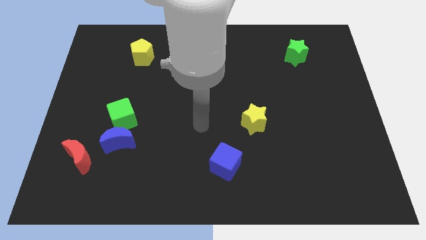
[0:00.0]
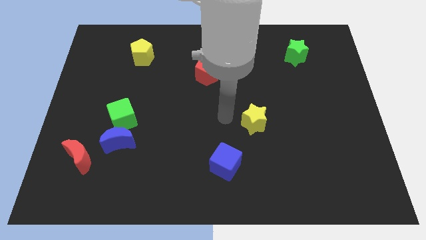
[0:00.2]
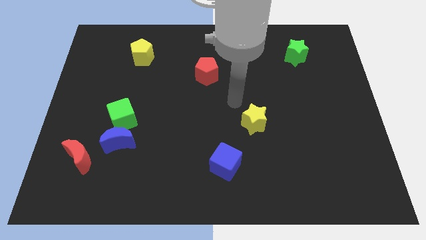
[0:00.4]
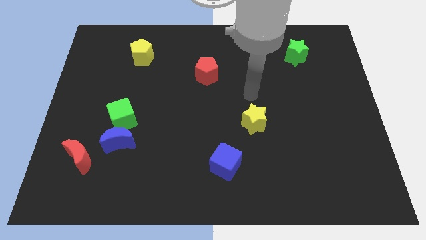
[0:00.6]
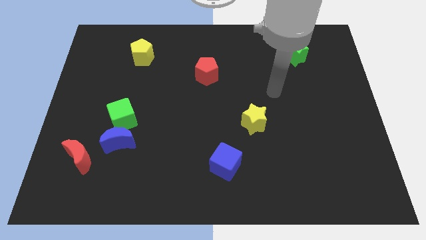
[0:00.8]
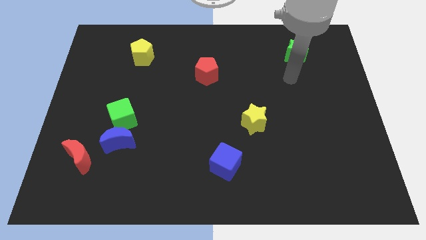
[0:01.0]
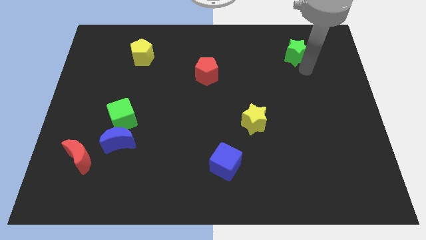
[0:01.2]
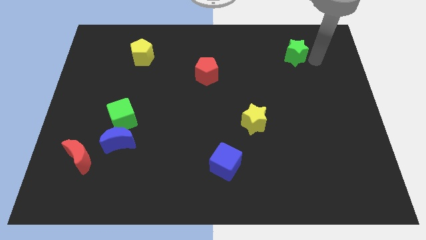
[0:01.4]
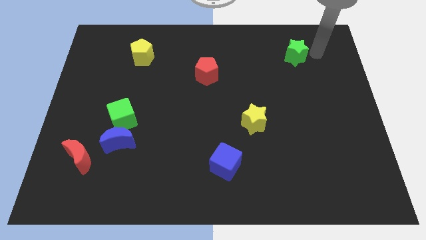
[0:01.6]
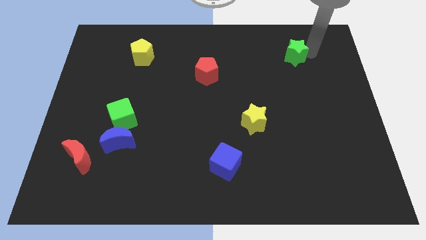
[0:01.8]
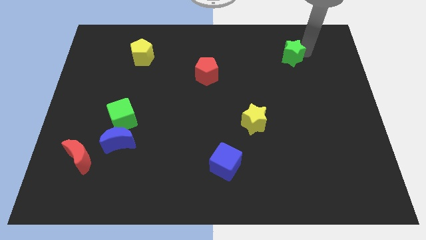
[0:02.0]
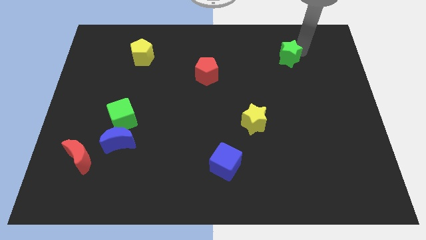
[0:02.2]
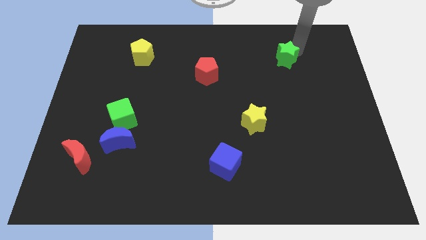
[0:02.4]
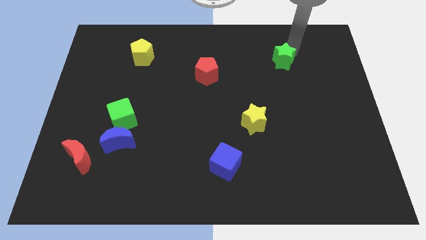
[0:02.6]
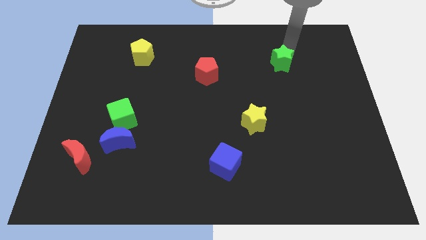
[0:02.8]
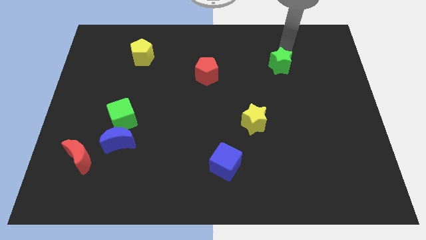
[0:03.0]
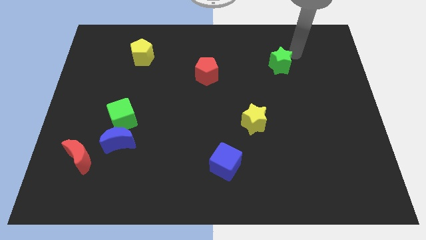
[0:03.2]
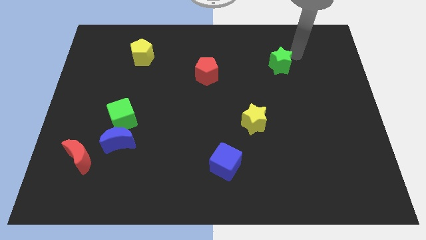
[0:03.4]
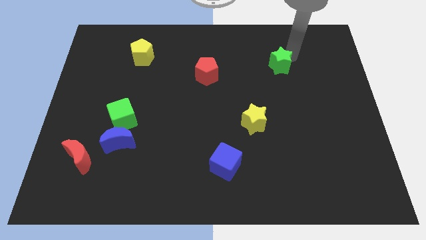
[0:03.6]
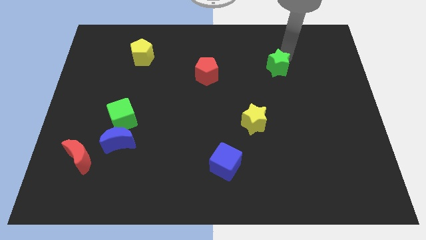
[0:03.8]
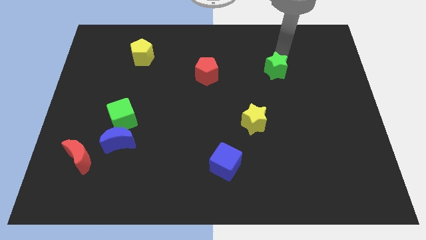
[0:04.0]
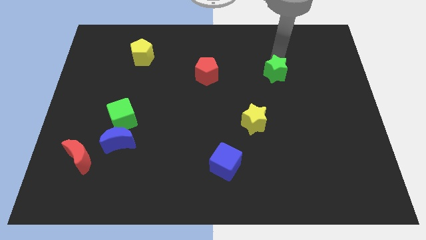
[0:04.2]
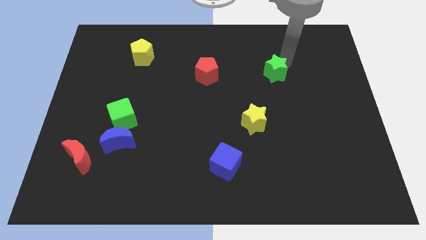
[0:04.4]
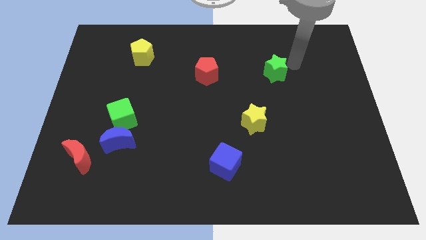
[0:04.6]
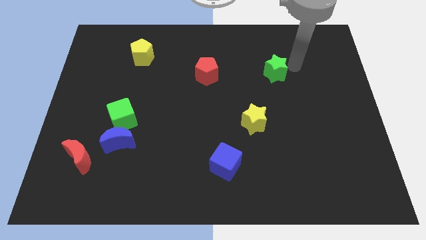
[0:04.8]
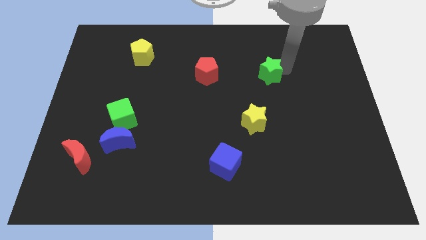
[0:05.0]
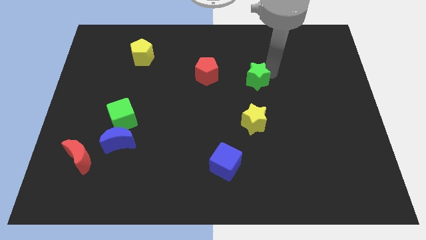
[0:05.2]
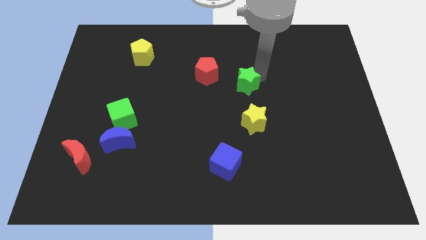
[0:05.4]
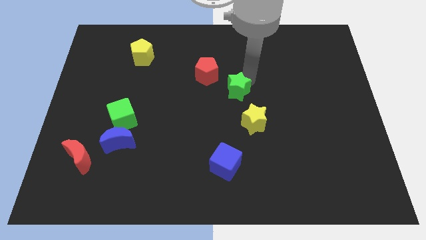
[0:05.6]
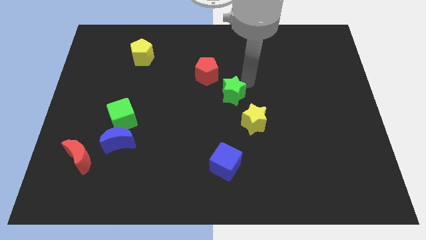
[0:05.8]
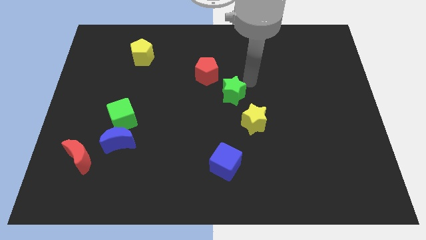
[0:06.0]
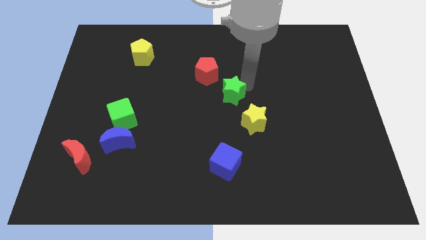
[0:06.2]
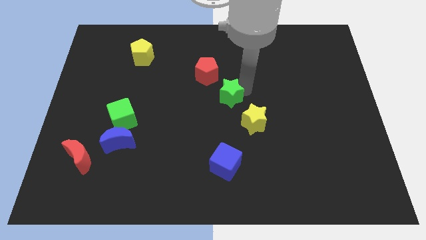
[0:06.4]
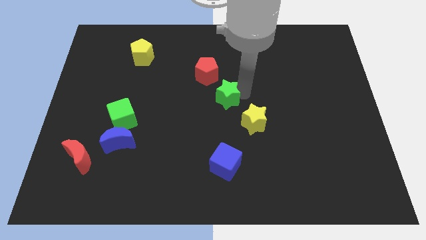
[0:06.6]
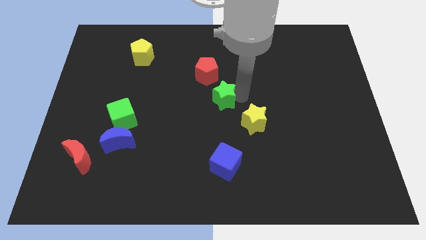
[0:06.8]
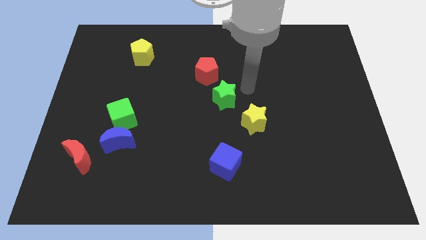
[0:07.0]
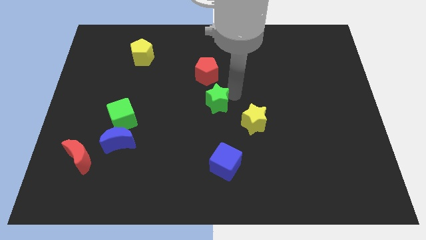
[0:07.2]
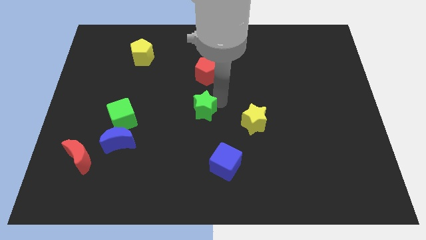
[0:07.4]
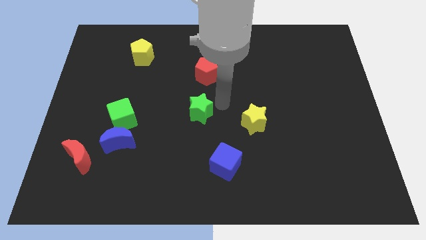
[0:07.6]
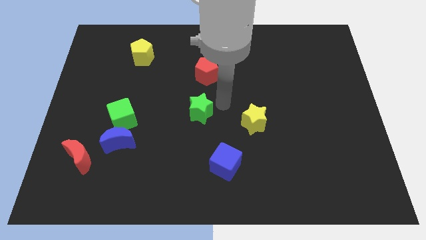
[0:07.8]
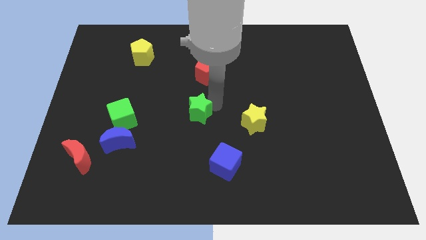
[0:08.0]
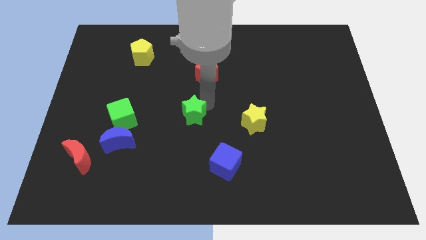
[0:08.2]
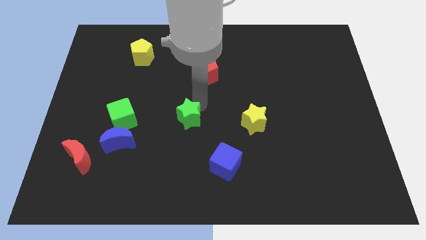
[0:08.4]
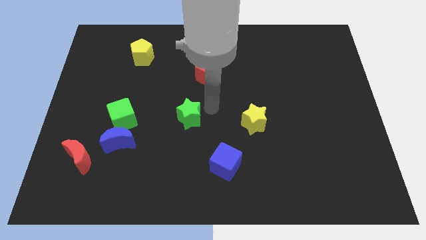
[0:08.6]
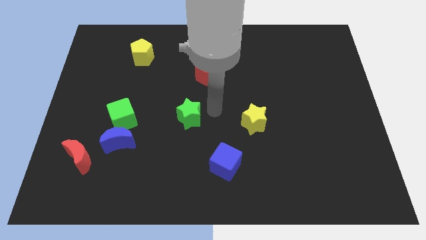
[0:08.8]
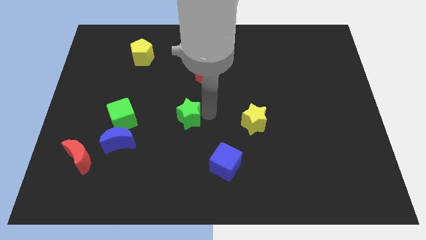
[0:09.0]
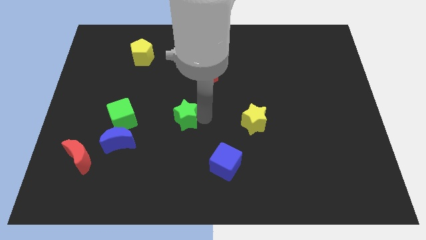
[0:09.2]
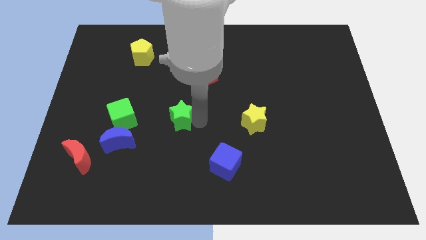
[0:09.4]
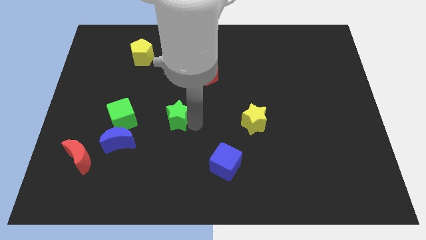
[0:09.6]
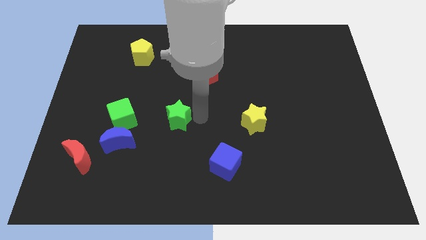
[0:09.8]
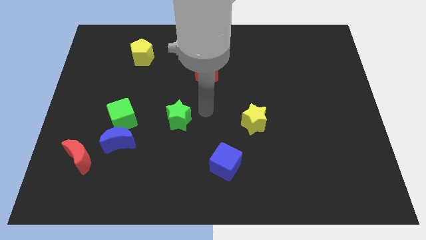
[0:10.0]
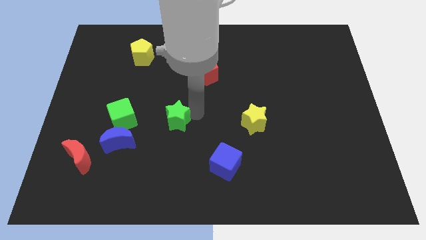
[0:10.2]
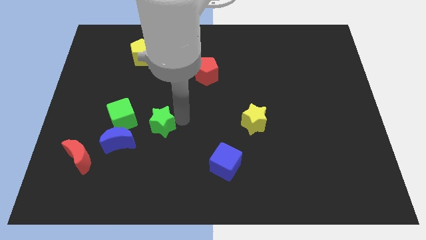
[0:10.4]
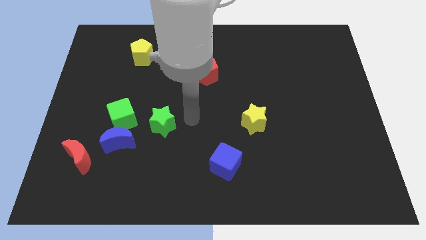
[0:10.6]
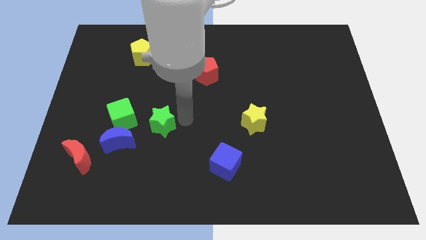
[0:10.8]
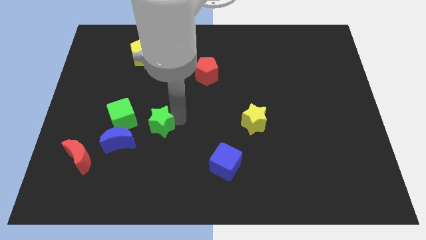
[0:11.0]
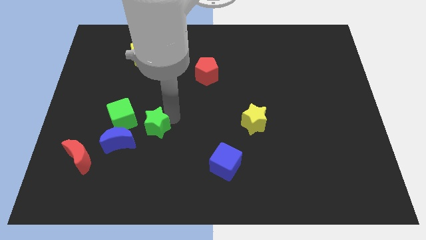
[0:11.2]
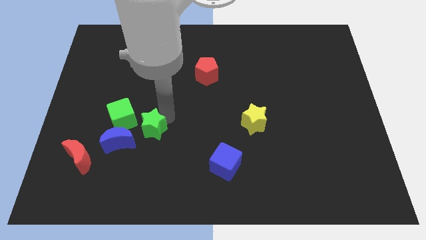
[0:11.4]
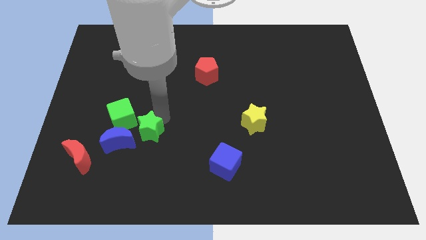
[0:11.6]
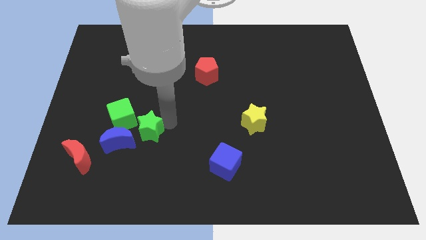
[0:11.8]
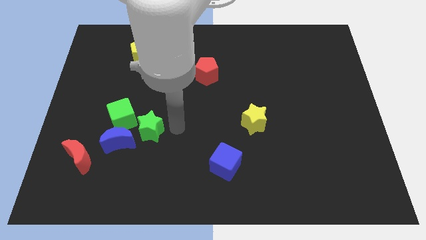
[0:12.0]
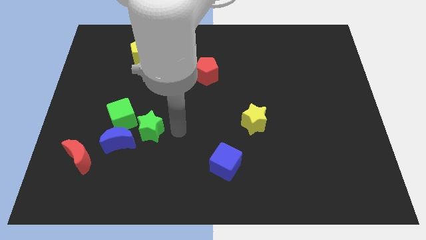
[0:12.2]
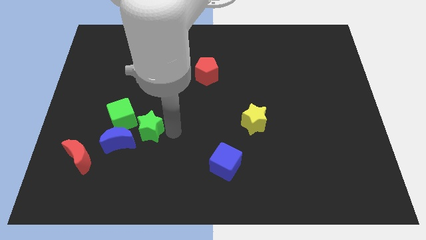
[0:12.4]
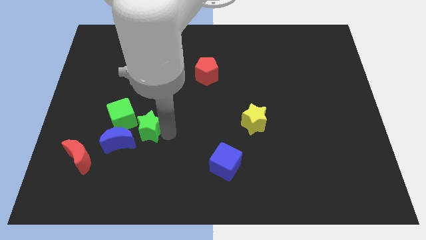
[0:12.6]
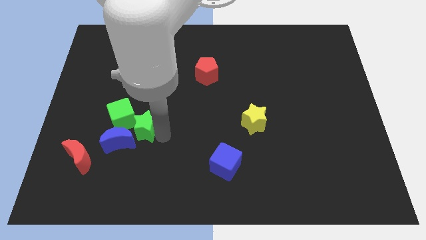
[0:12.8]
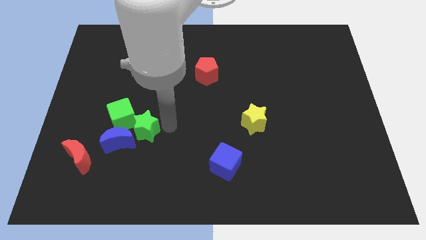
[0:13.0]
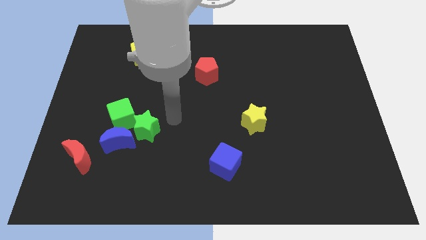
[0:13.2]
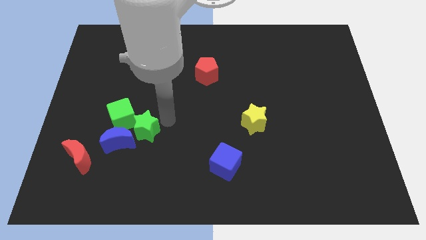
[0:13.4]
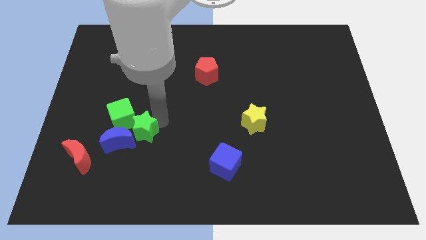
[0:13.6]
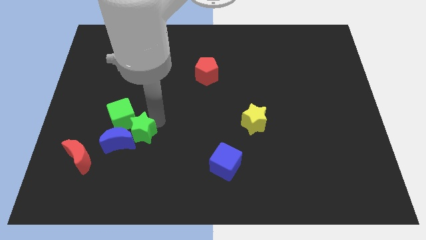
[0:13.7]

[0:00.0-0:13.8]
push the green star close to the blue moon

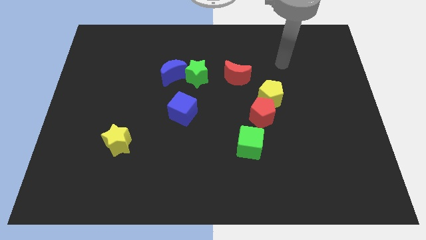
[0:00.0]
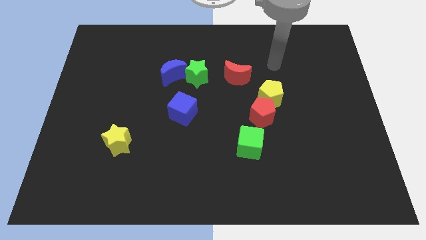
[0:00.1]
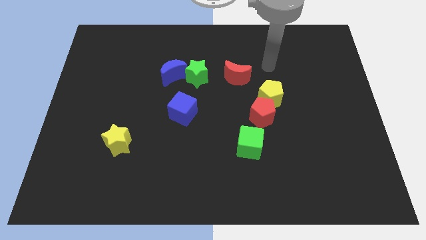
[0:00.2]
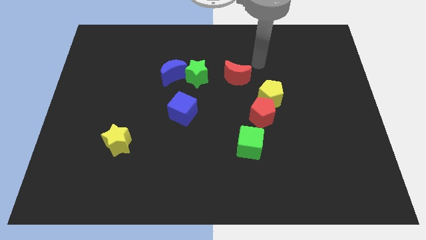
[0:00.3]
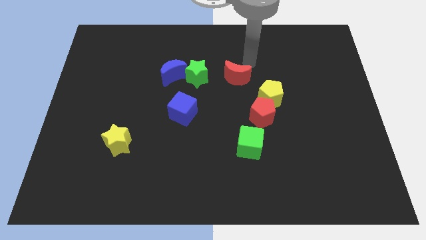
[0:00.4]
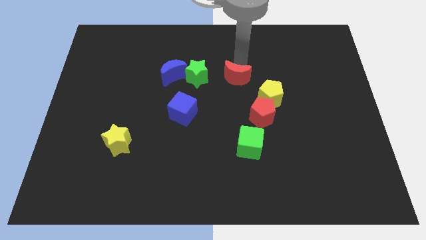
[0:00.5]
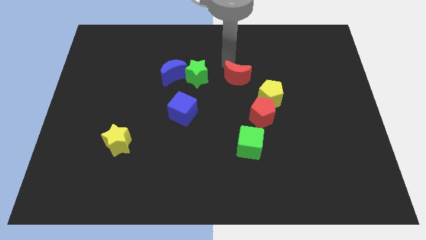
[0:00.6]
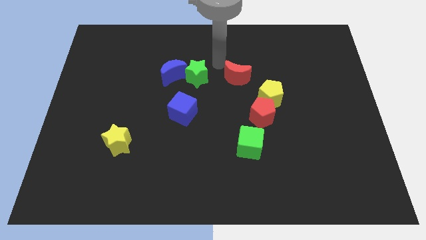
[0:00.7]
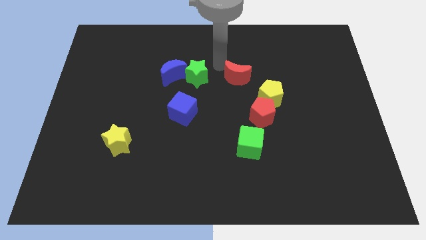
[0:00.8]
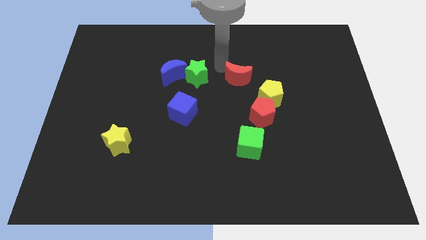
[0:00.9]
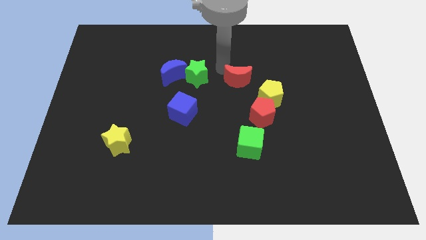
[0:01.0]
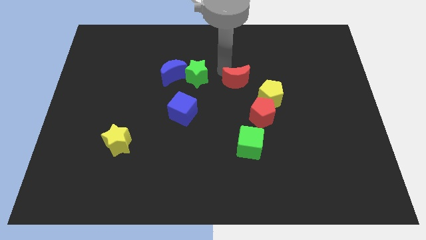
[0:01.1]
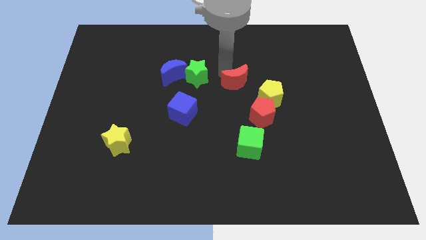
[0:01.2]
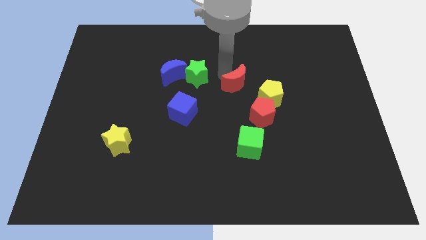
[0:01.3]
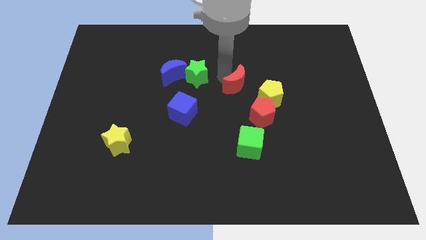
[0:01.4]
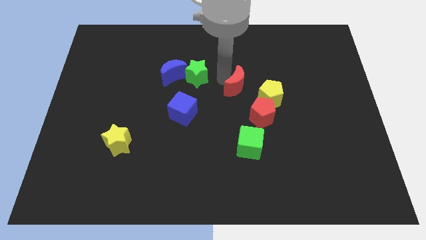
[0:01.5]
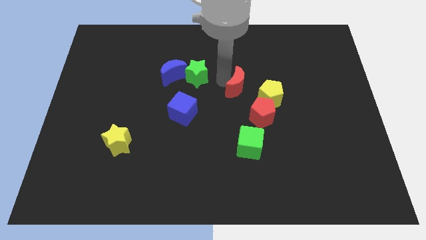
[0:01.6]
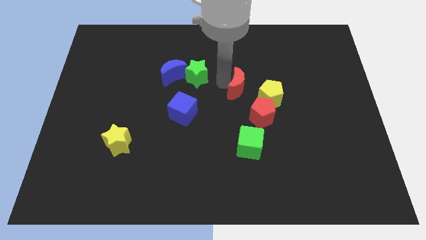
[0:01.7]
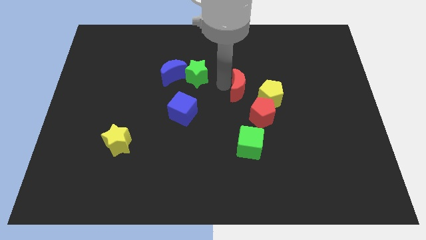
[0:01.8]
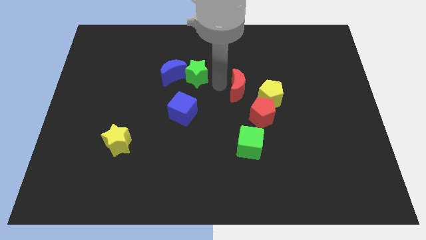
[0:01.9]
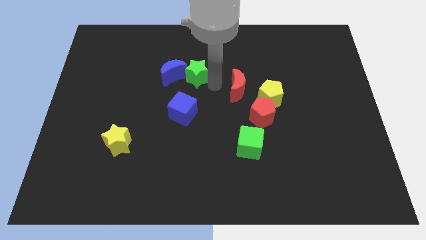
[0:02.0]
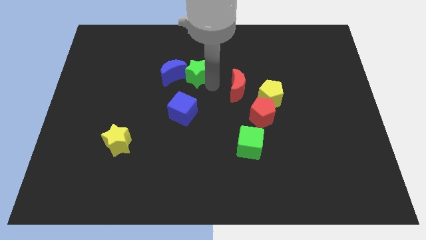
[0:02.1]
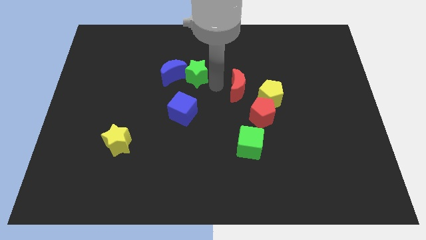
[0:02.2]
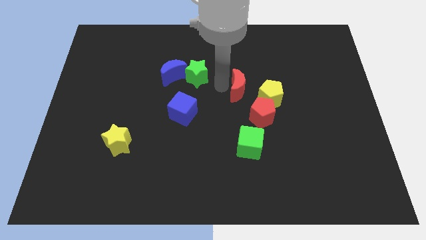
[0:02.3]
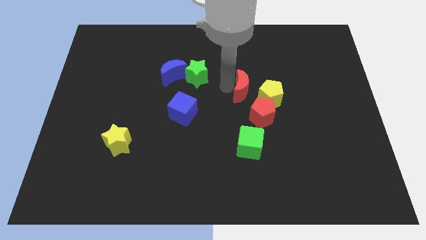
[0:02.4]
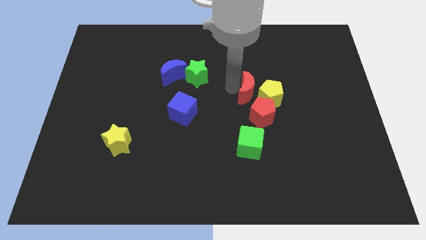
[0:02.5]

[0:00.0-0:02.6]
move the red moon to the yellow pentagon
